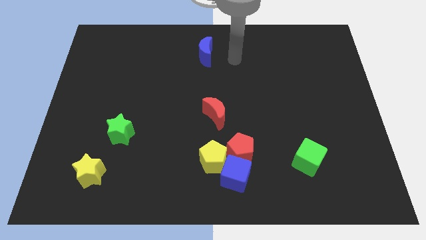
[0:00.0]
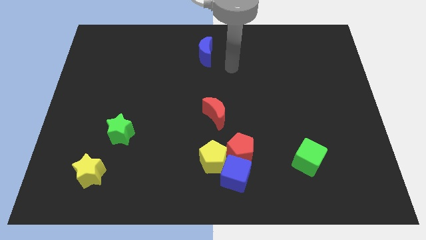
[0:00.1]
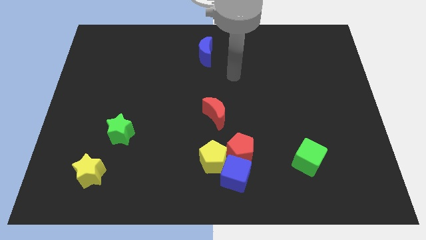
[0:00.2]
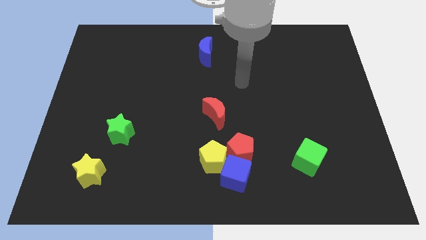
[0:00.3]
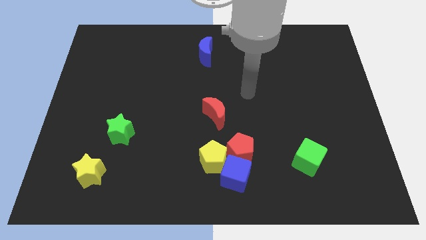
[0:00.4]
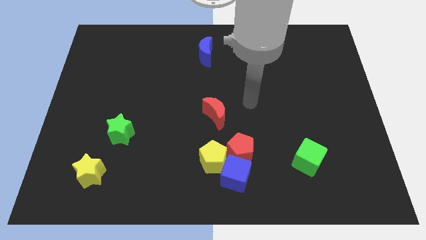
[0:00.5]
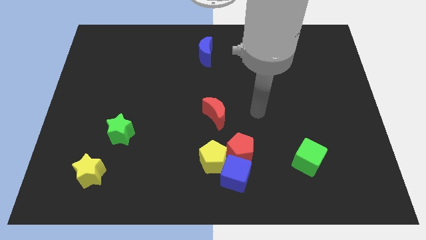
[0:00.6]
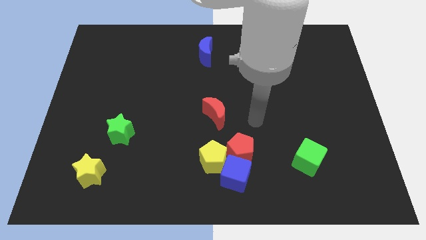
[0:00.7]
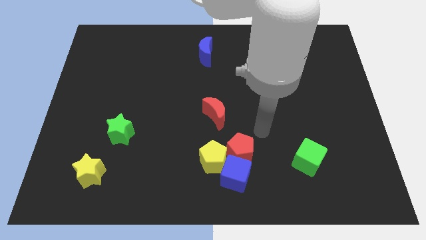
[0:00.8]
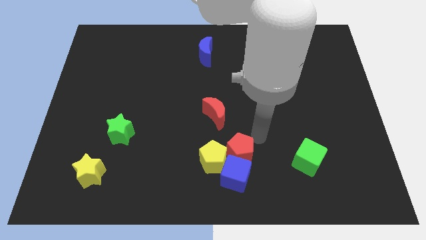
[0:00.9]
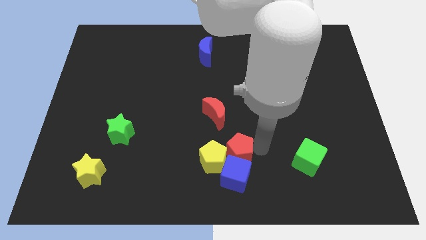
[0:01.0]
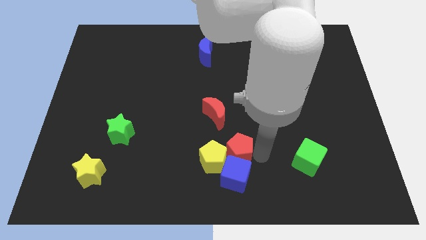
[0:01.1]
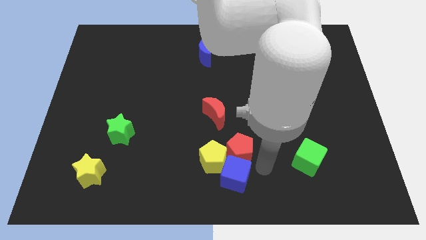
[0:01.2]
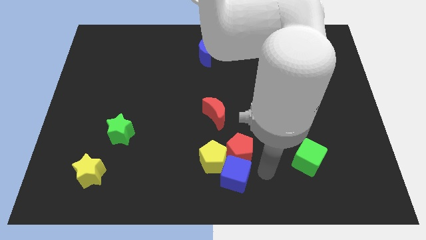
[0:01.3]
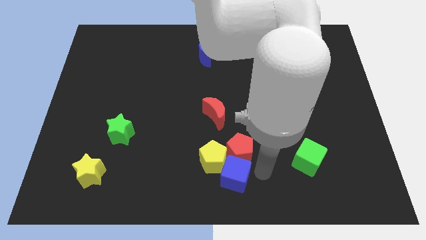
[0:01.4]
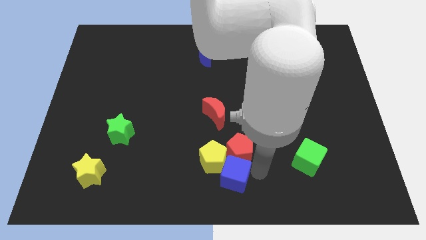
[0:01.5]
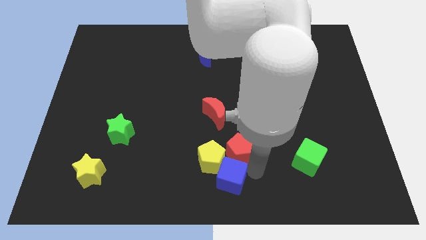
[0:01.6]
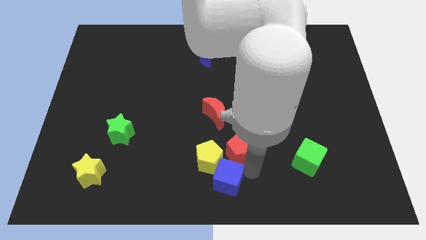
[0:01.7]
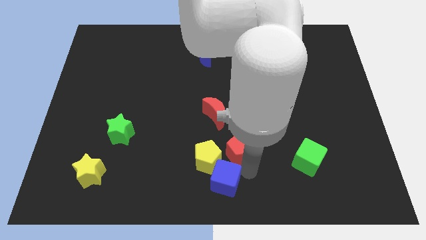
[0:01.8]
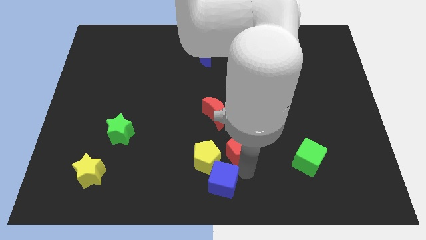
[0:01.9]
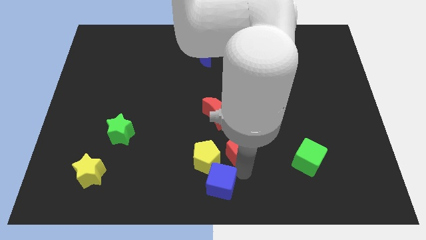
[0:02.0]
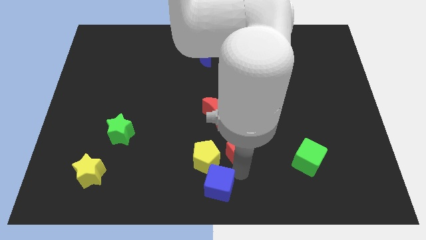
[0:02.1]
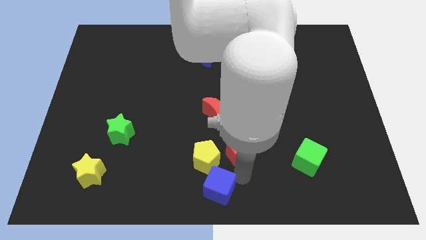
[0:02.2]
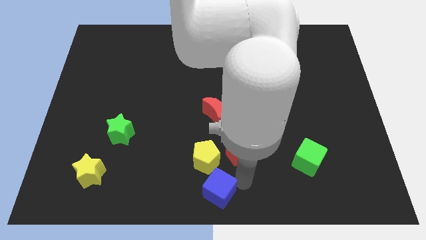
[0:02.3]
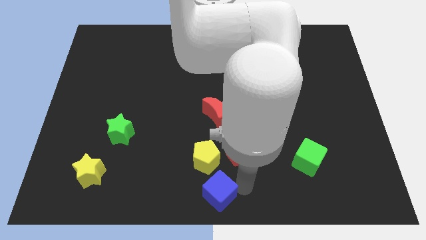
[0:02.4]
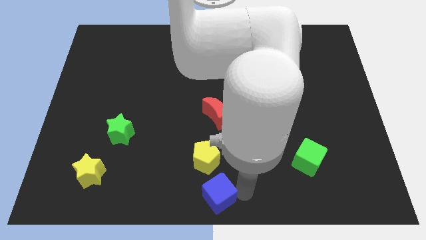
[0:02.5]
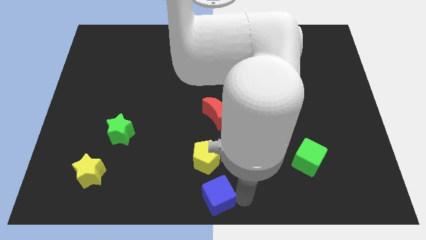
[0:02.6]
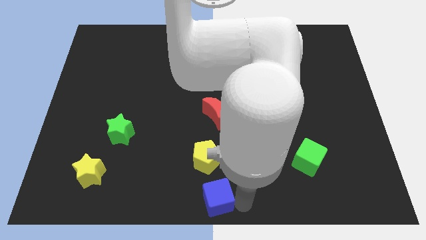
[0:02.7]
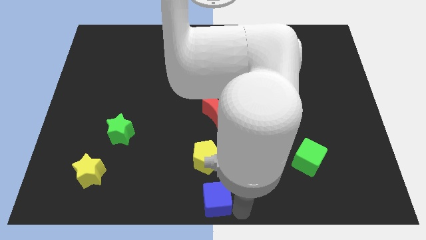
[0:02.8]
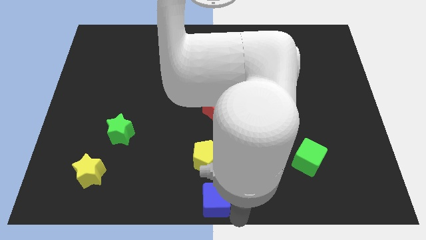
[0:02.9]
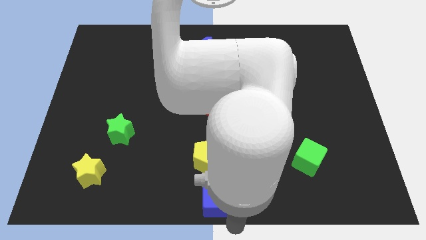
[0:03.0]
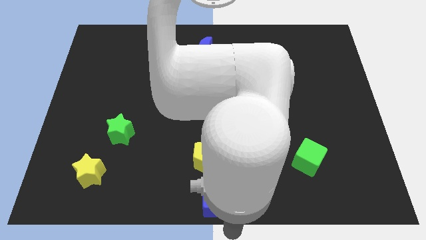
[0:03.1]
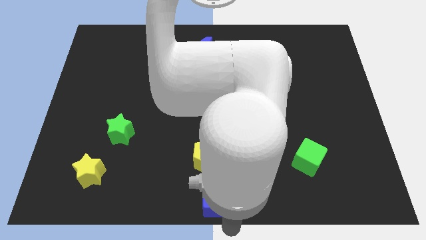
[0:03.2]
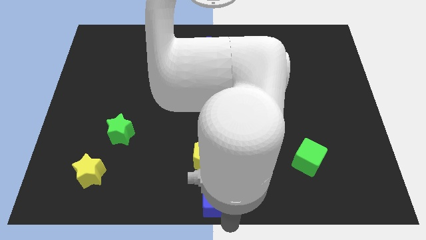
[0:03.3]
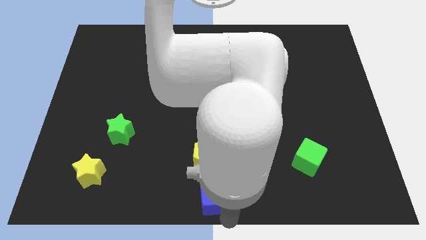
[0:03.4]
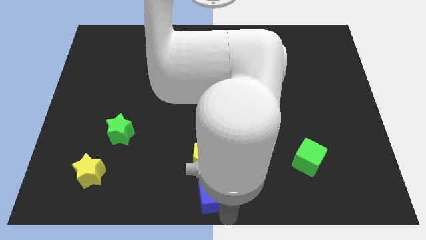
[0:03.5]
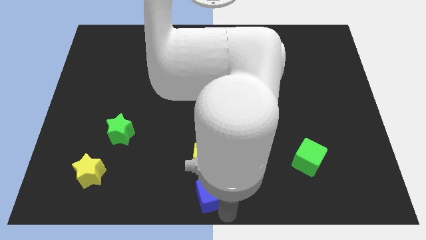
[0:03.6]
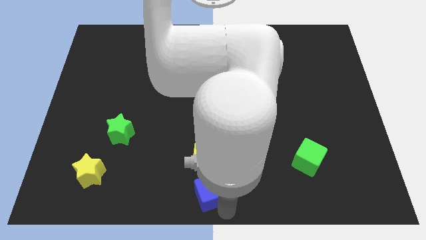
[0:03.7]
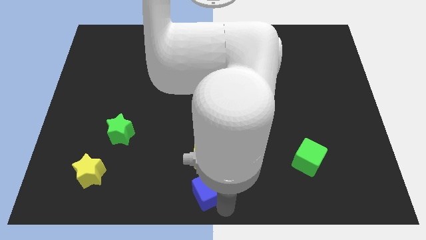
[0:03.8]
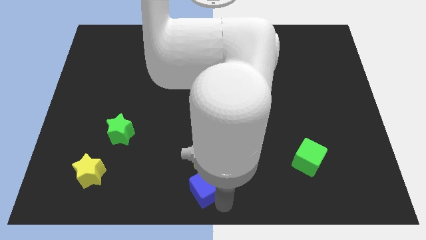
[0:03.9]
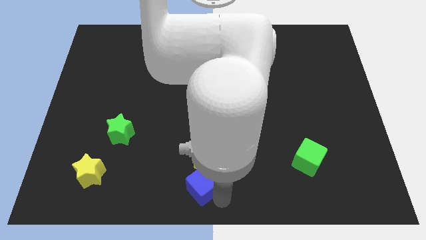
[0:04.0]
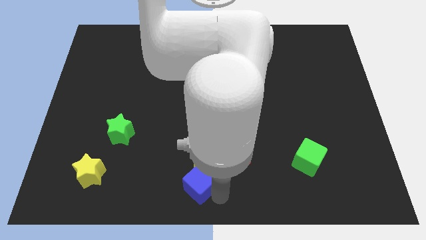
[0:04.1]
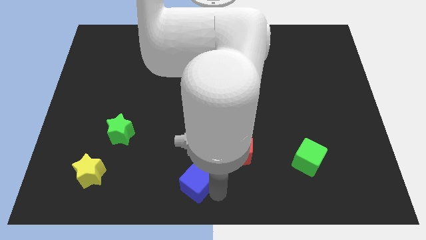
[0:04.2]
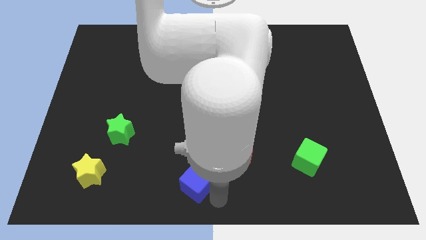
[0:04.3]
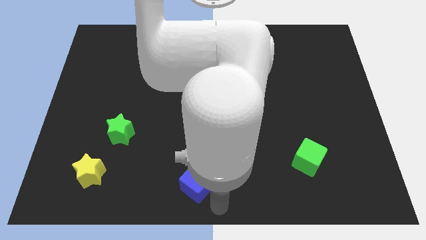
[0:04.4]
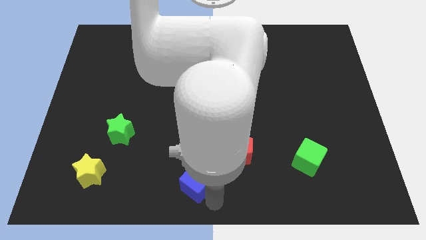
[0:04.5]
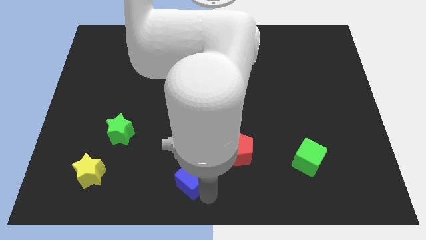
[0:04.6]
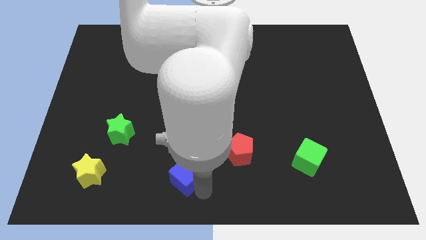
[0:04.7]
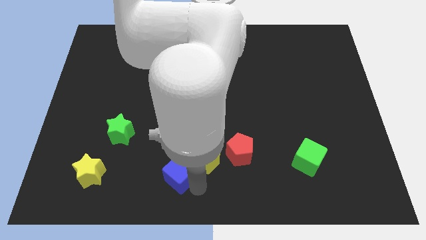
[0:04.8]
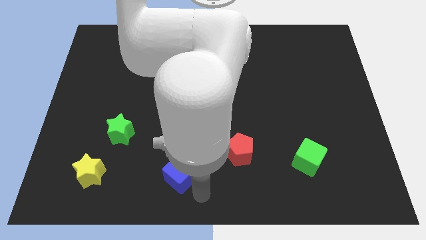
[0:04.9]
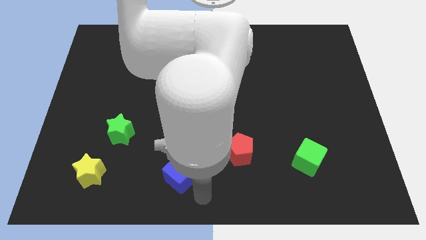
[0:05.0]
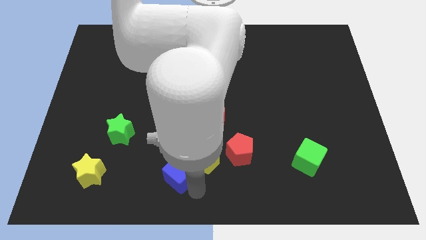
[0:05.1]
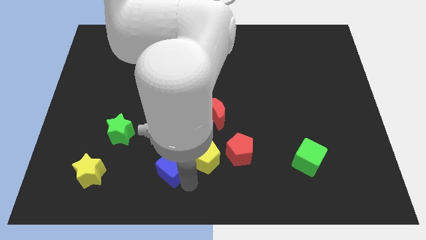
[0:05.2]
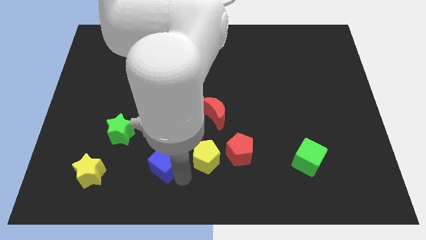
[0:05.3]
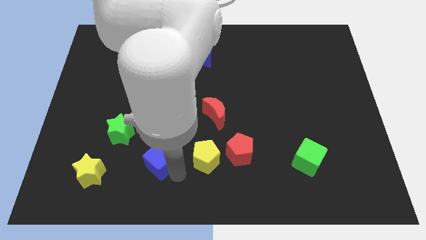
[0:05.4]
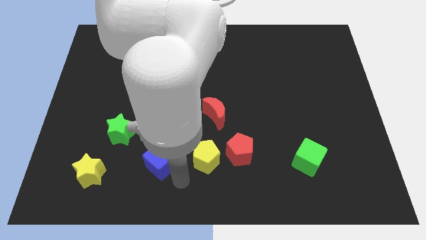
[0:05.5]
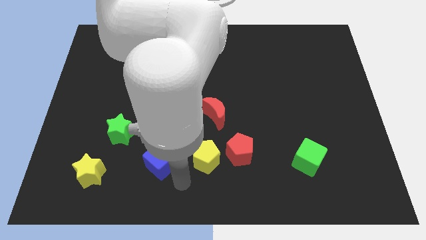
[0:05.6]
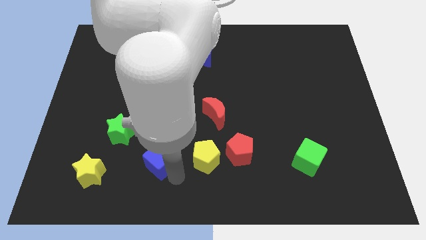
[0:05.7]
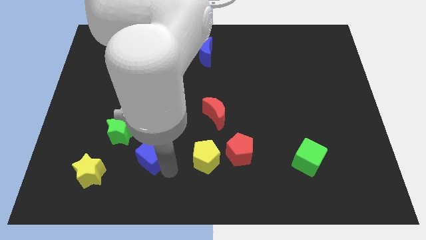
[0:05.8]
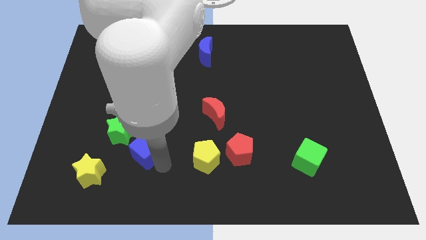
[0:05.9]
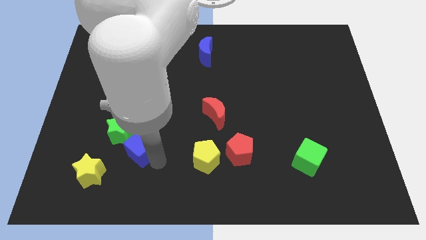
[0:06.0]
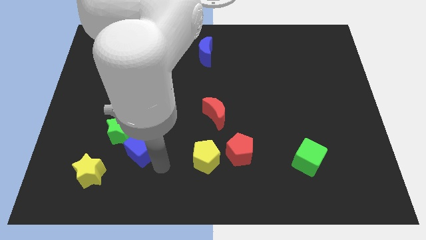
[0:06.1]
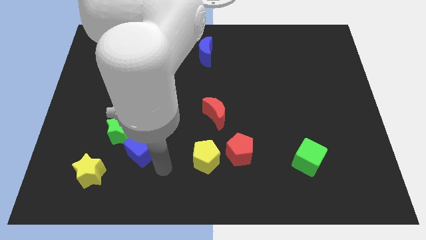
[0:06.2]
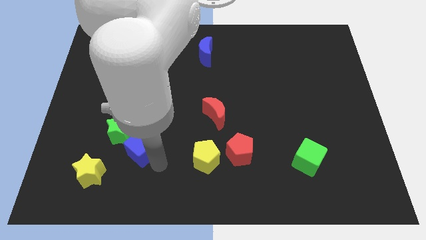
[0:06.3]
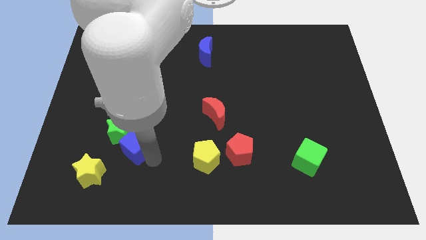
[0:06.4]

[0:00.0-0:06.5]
slide the blue cube close to the green star
